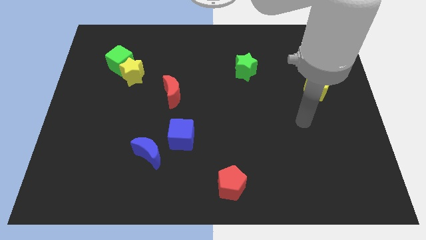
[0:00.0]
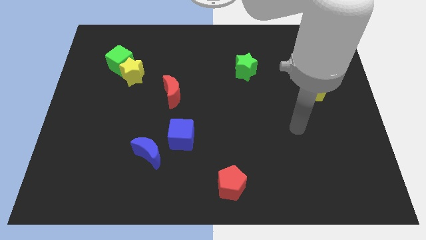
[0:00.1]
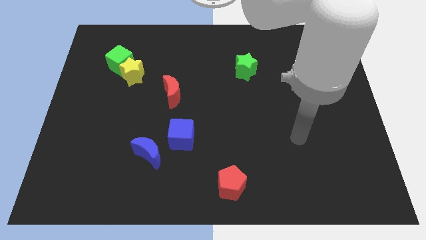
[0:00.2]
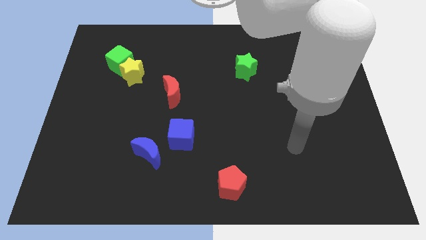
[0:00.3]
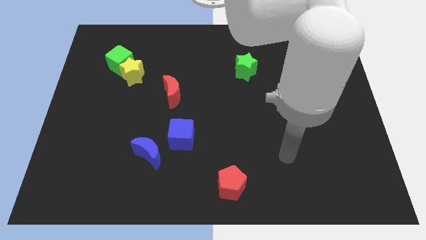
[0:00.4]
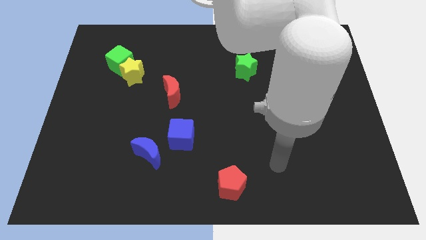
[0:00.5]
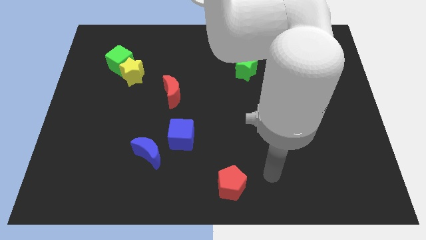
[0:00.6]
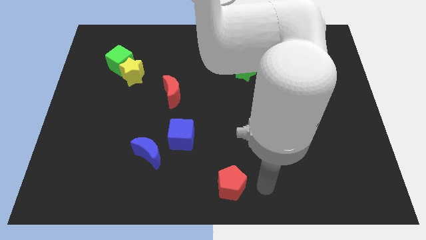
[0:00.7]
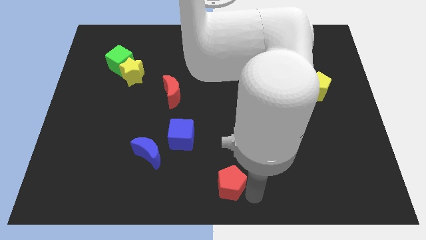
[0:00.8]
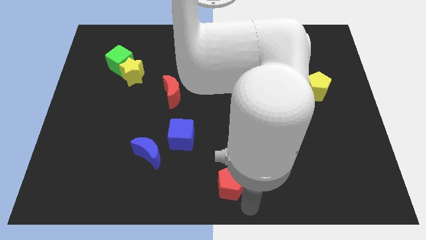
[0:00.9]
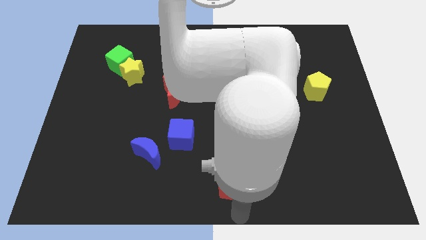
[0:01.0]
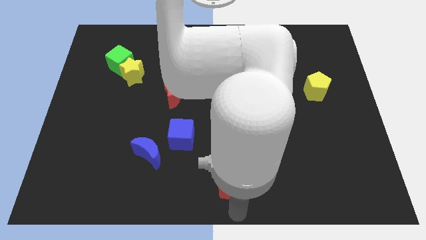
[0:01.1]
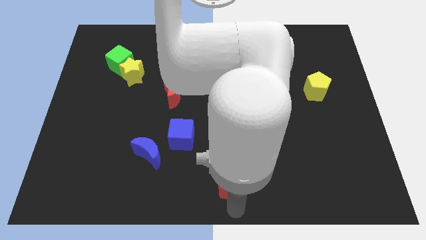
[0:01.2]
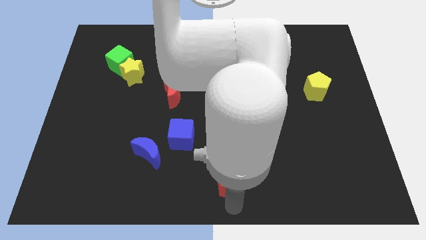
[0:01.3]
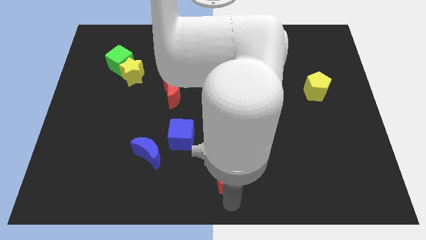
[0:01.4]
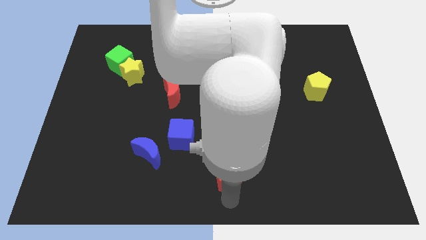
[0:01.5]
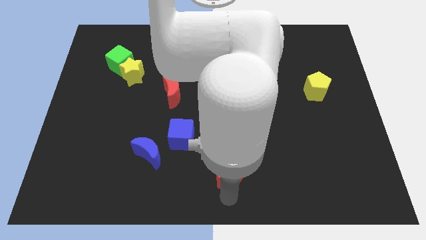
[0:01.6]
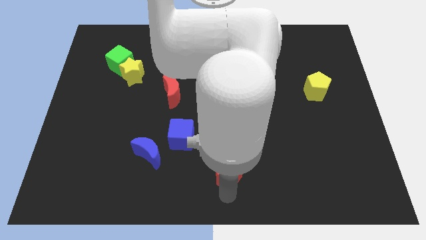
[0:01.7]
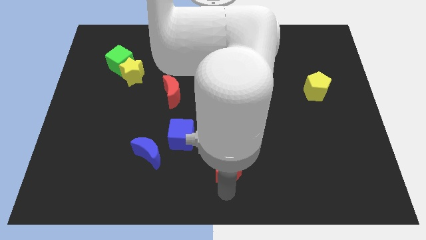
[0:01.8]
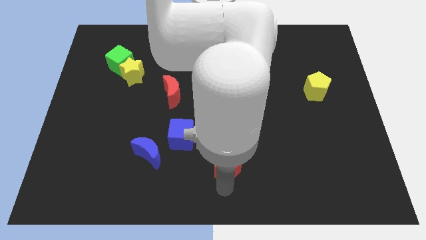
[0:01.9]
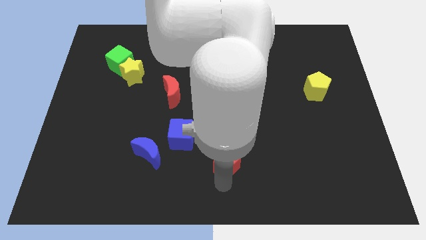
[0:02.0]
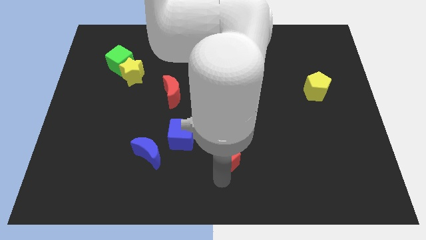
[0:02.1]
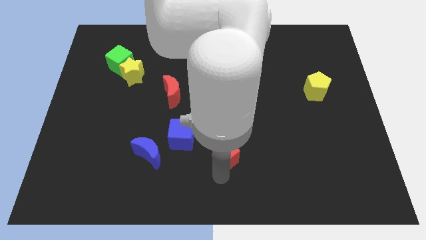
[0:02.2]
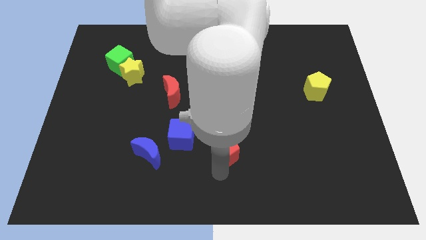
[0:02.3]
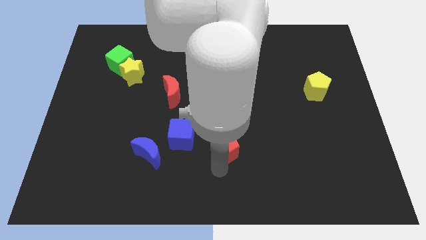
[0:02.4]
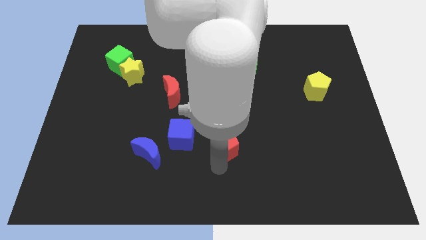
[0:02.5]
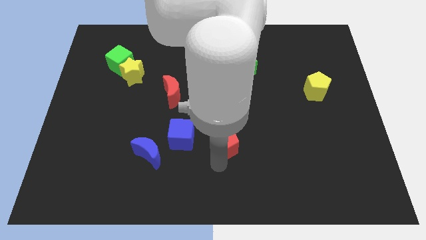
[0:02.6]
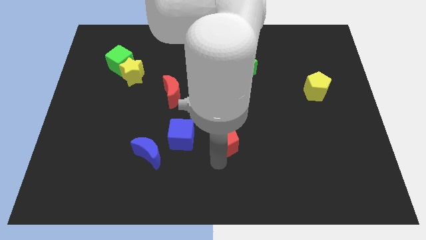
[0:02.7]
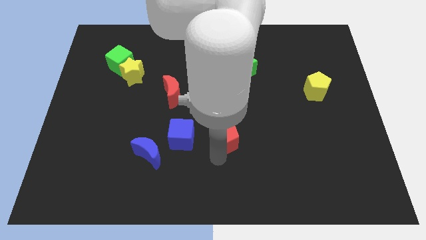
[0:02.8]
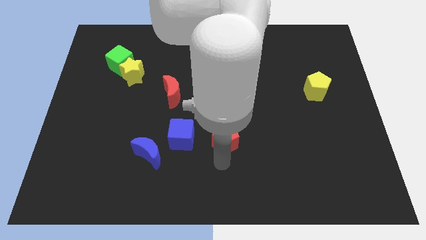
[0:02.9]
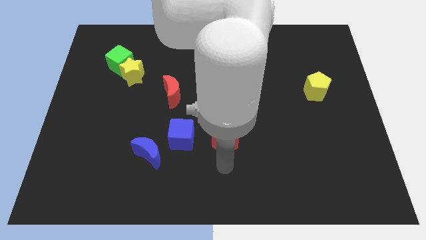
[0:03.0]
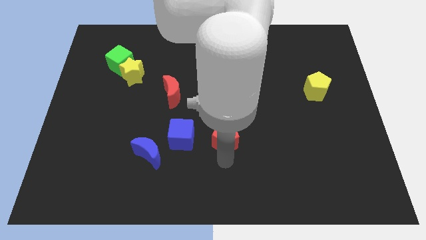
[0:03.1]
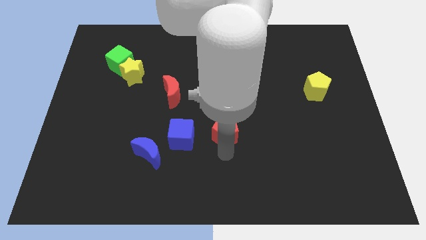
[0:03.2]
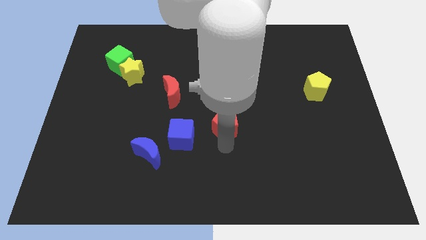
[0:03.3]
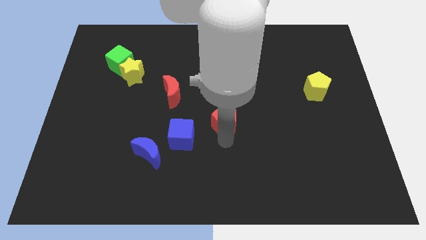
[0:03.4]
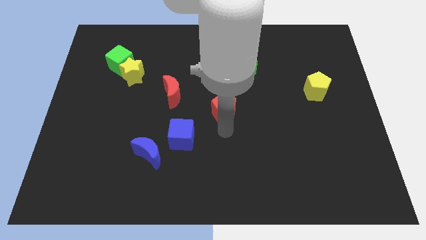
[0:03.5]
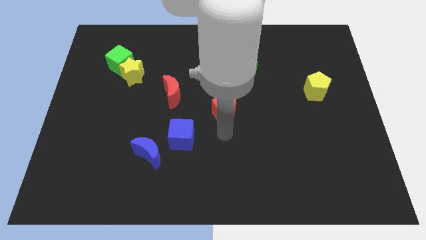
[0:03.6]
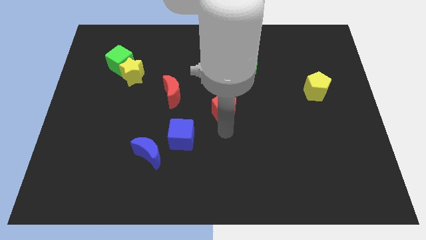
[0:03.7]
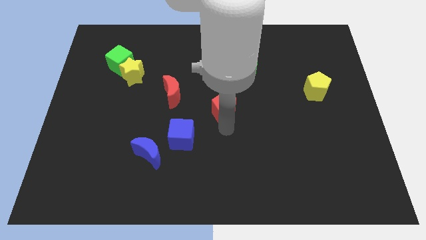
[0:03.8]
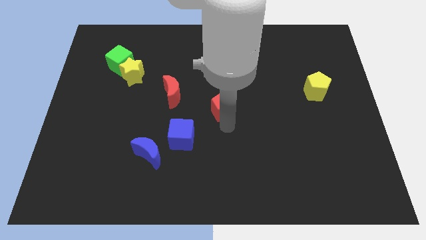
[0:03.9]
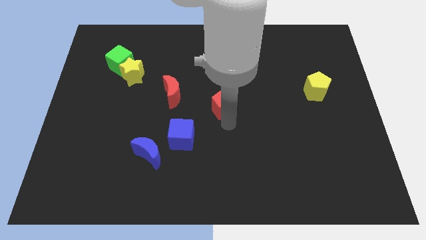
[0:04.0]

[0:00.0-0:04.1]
move the red pentagon upwards

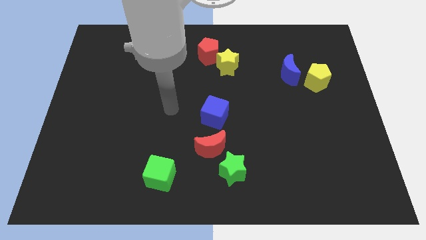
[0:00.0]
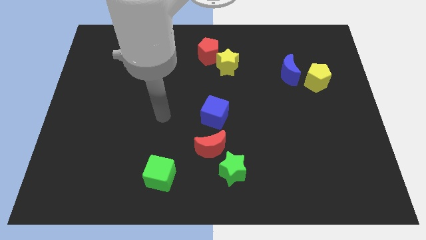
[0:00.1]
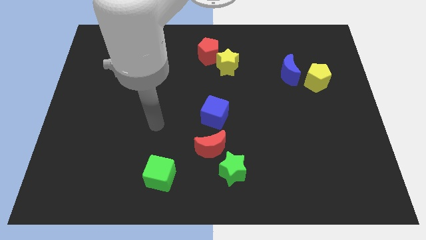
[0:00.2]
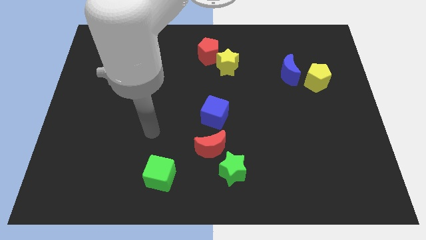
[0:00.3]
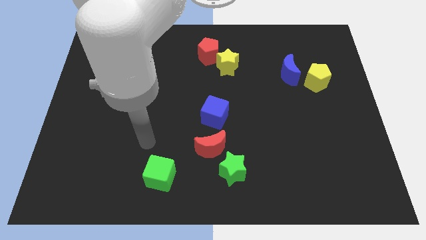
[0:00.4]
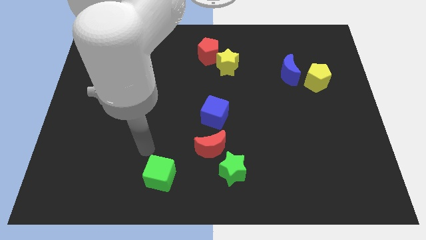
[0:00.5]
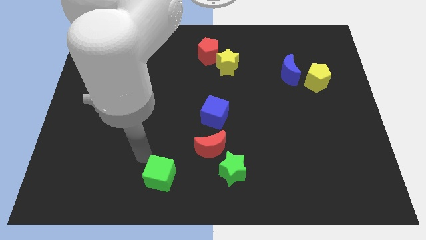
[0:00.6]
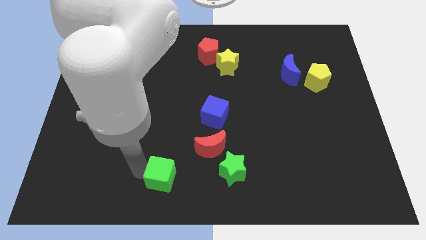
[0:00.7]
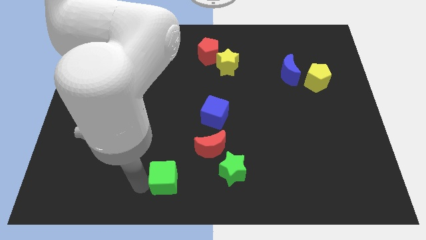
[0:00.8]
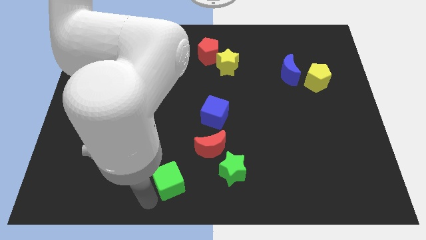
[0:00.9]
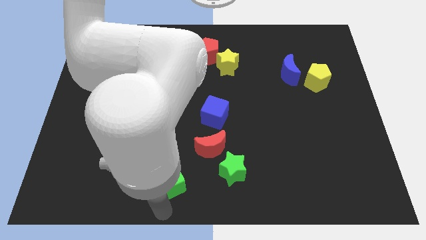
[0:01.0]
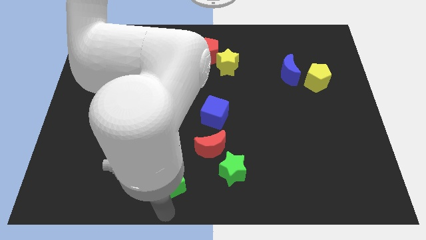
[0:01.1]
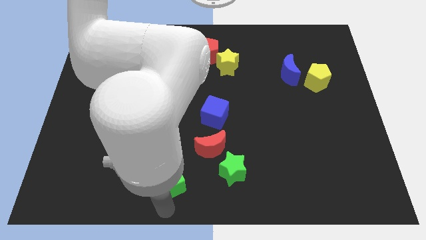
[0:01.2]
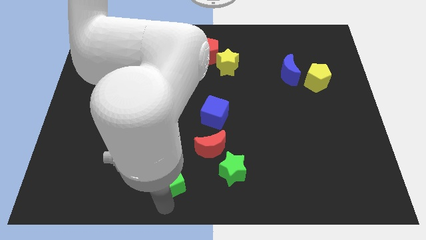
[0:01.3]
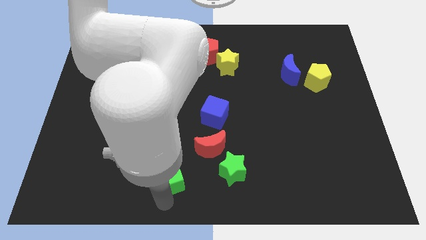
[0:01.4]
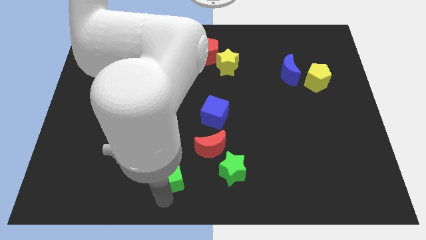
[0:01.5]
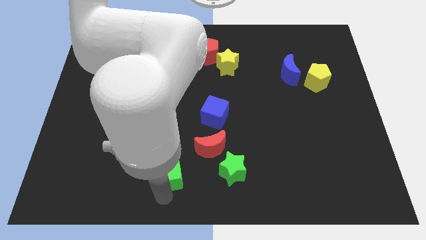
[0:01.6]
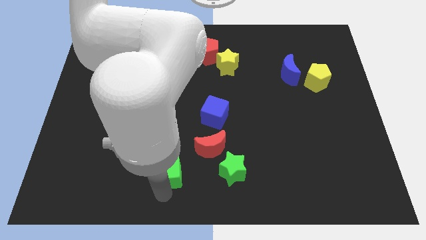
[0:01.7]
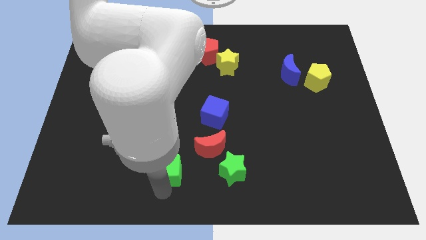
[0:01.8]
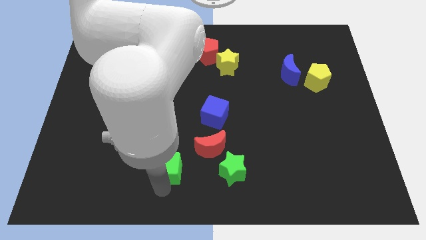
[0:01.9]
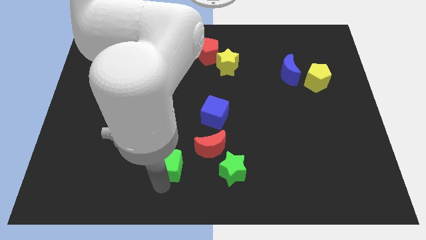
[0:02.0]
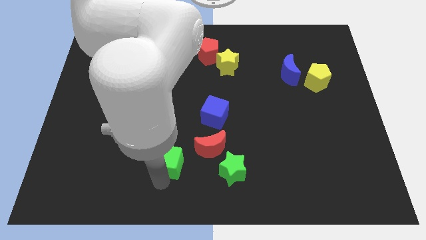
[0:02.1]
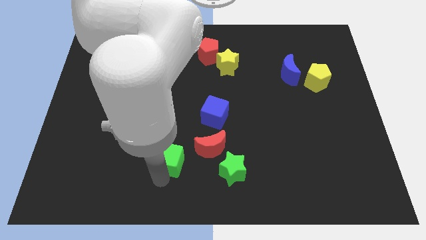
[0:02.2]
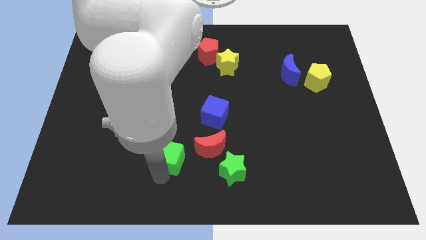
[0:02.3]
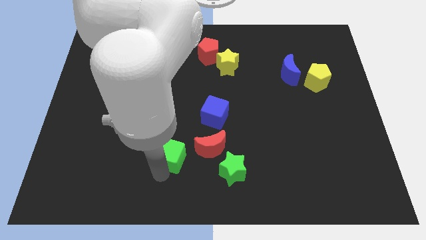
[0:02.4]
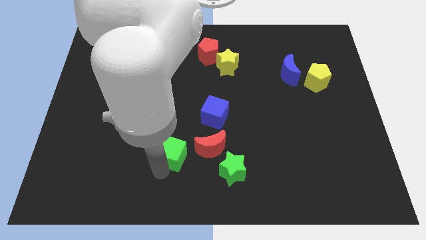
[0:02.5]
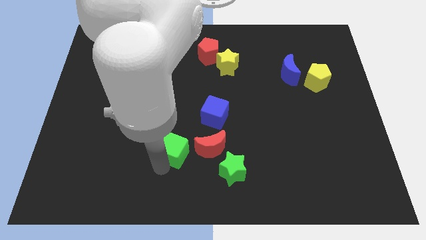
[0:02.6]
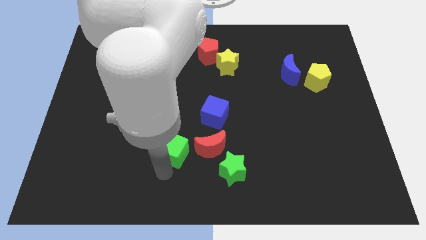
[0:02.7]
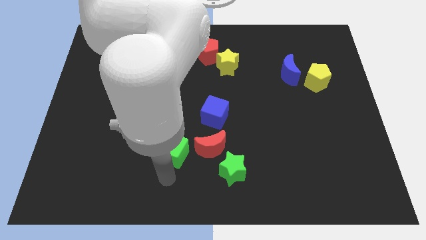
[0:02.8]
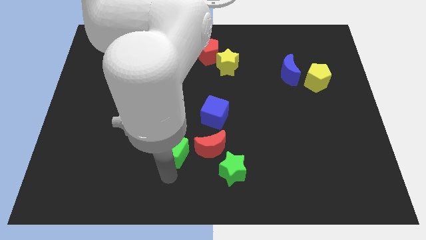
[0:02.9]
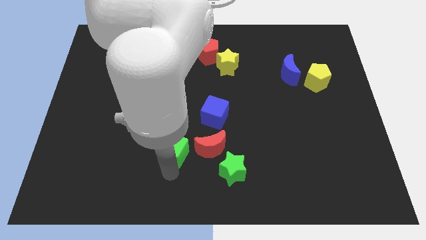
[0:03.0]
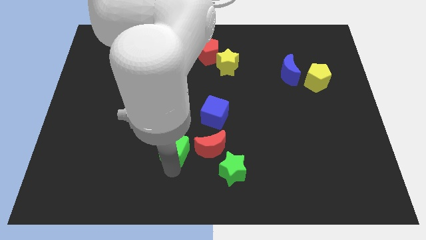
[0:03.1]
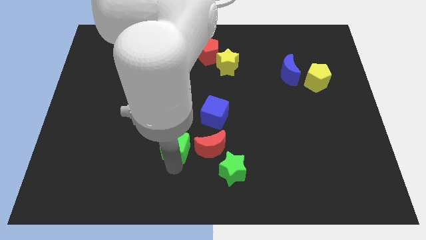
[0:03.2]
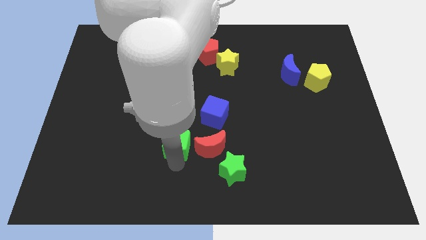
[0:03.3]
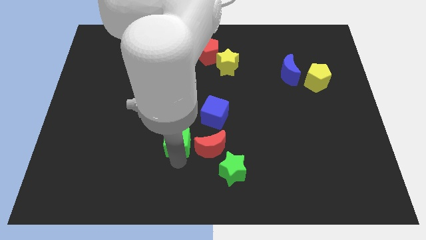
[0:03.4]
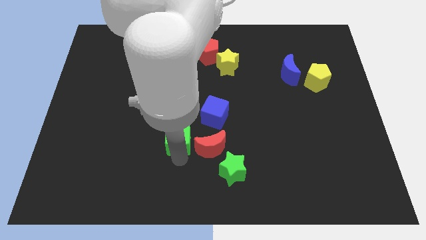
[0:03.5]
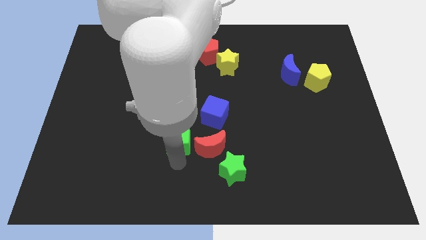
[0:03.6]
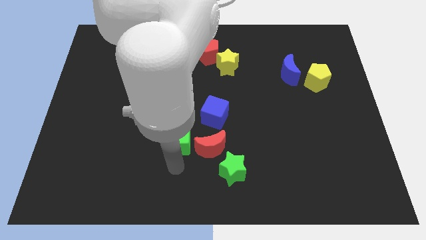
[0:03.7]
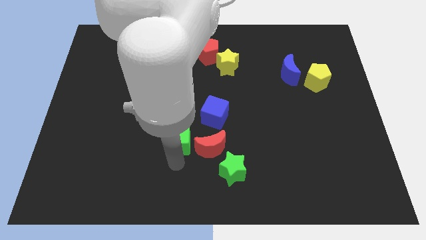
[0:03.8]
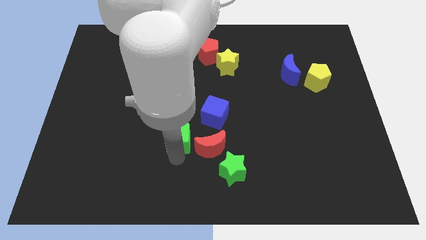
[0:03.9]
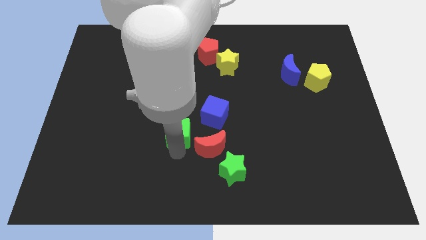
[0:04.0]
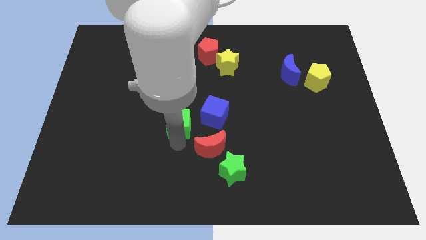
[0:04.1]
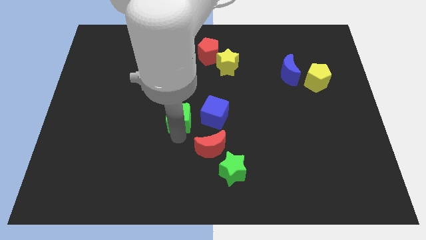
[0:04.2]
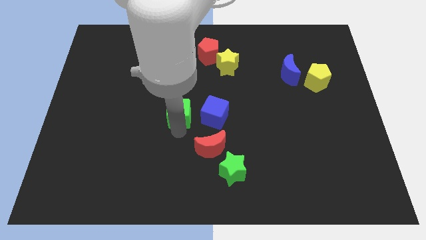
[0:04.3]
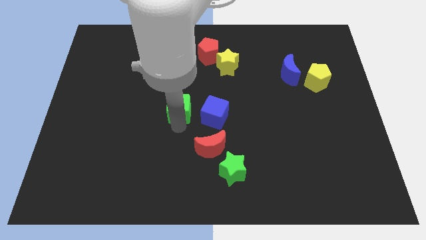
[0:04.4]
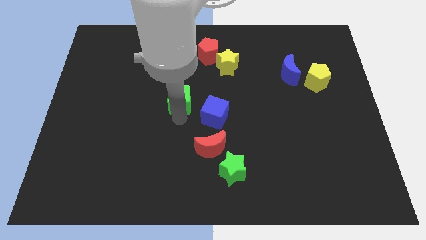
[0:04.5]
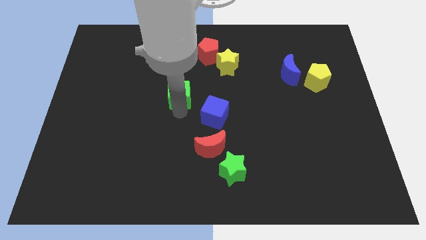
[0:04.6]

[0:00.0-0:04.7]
push the green cube up
